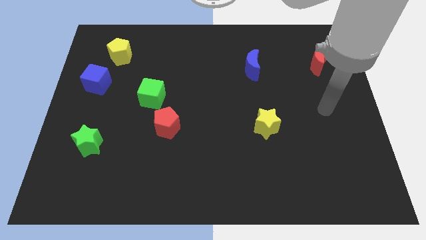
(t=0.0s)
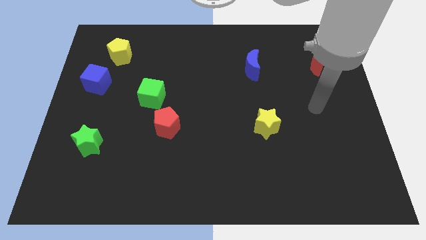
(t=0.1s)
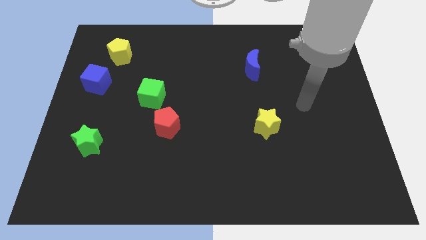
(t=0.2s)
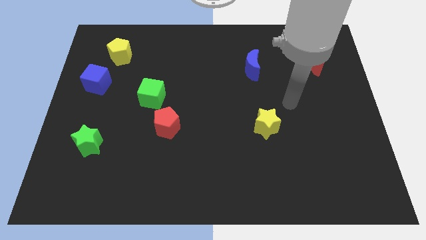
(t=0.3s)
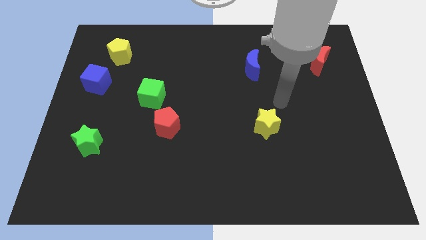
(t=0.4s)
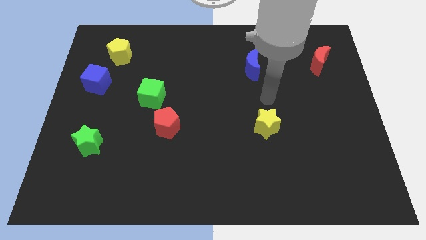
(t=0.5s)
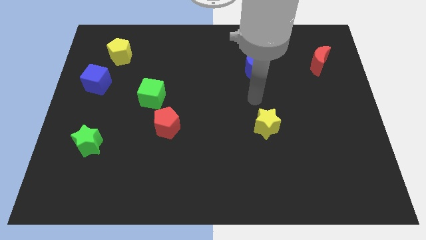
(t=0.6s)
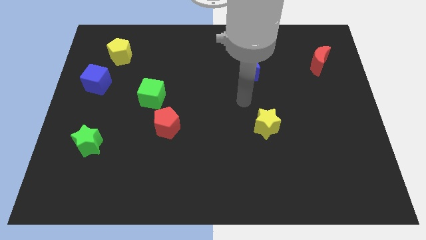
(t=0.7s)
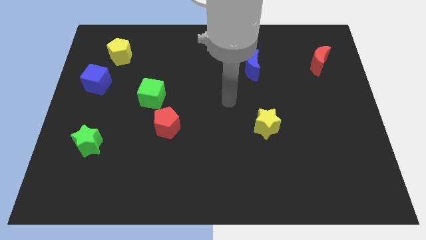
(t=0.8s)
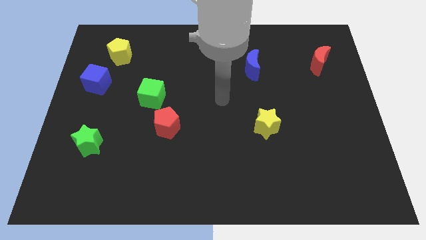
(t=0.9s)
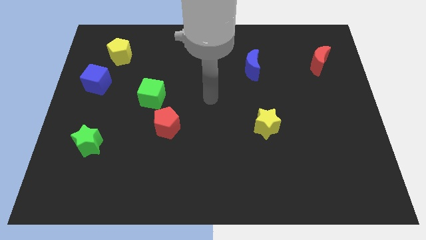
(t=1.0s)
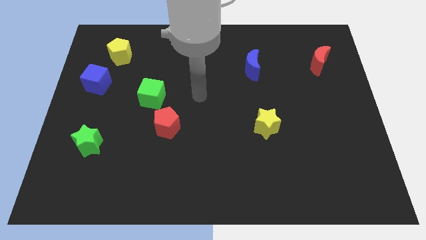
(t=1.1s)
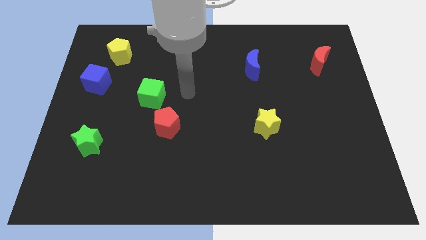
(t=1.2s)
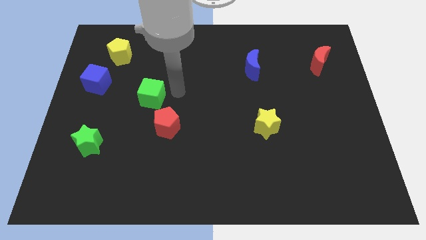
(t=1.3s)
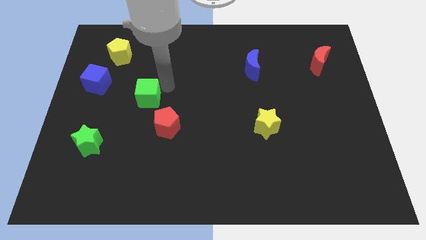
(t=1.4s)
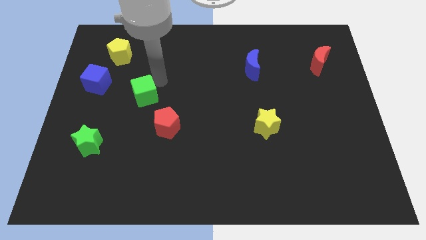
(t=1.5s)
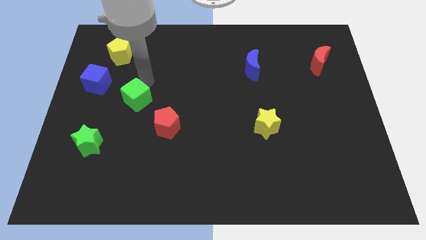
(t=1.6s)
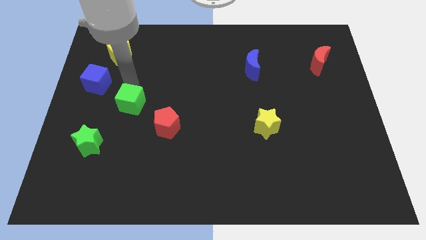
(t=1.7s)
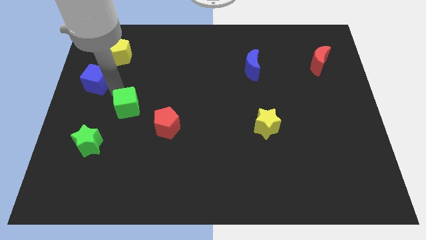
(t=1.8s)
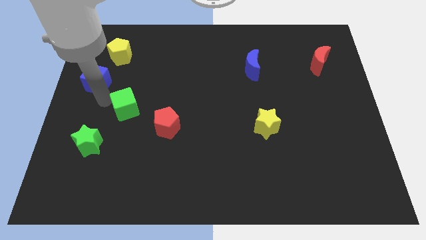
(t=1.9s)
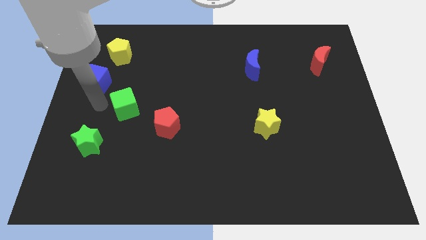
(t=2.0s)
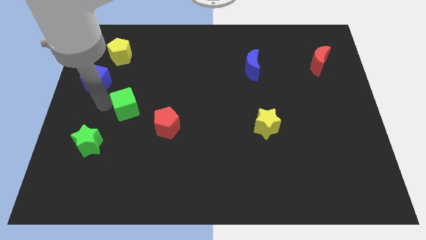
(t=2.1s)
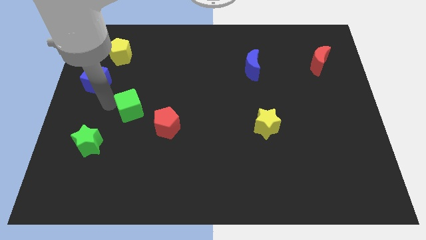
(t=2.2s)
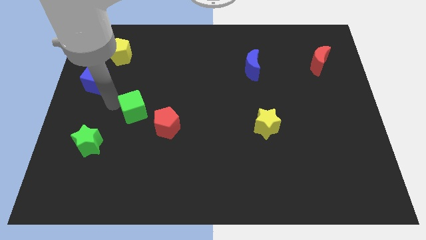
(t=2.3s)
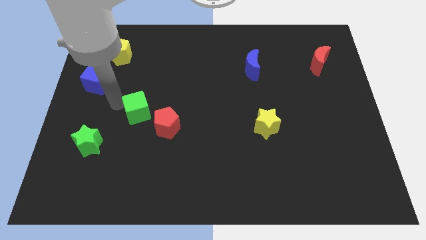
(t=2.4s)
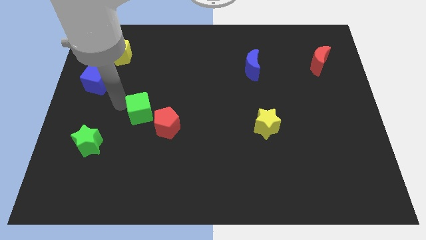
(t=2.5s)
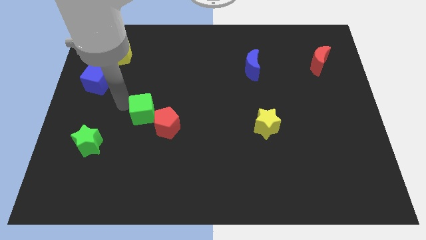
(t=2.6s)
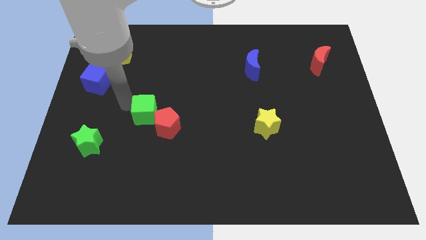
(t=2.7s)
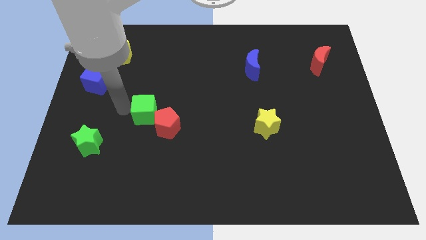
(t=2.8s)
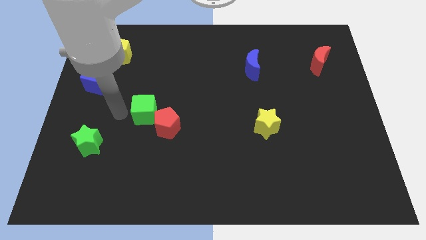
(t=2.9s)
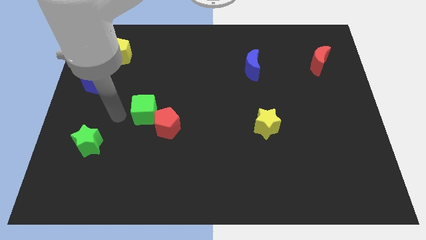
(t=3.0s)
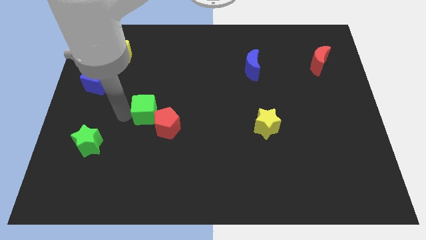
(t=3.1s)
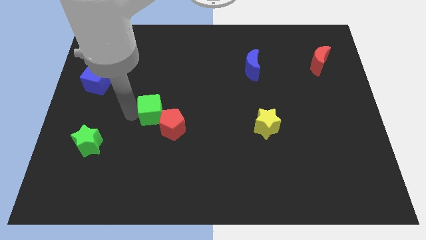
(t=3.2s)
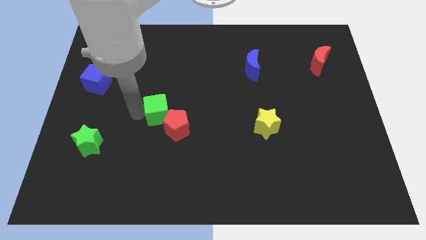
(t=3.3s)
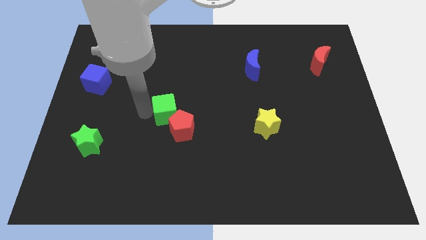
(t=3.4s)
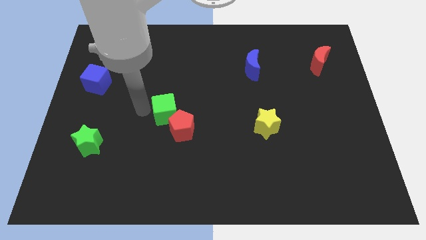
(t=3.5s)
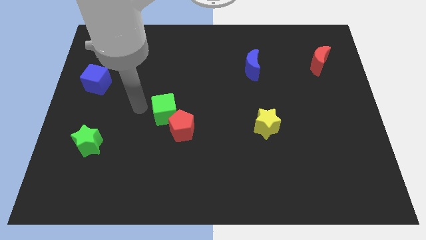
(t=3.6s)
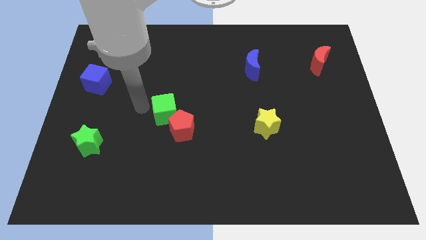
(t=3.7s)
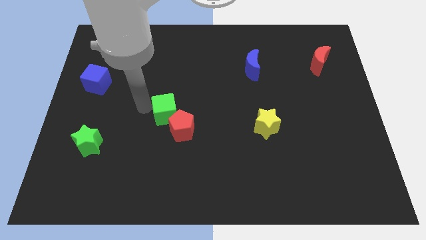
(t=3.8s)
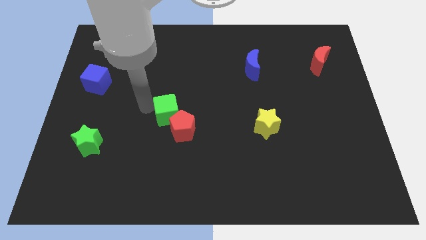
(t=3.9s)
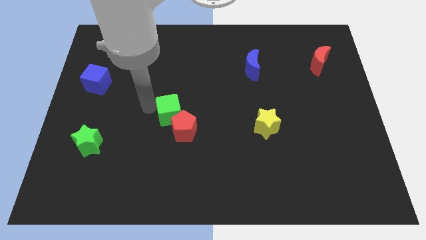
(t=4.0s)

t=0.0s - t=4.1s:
push the green cube somewhat diagonally down and to the right

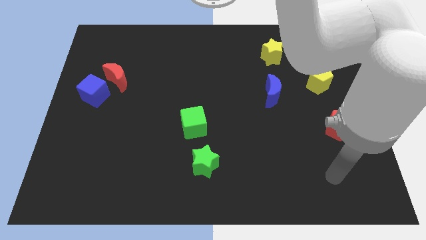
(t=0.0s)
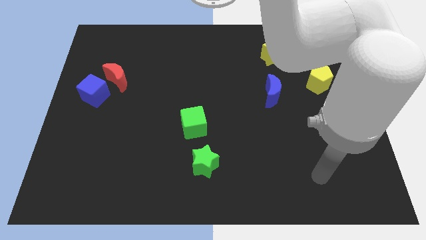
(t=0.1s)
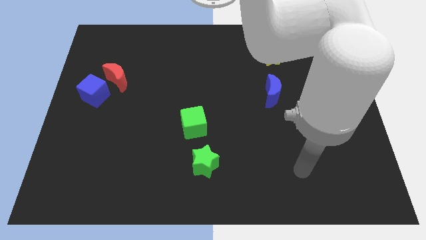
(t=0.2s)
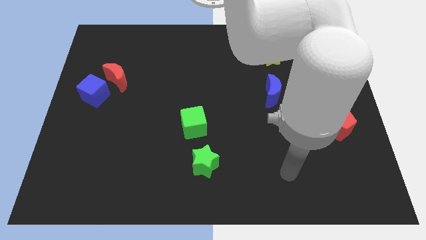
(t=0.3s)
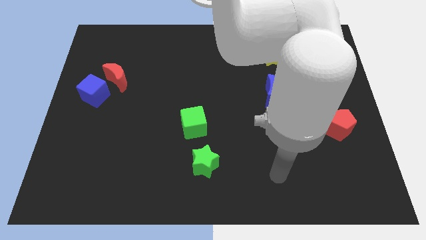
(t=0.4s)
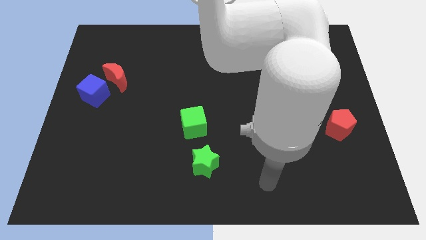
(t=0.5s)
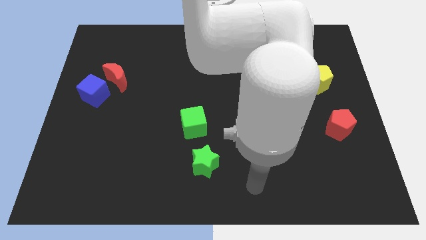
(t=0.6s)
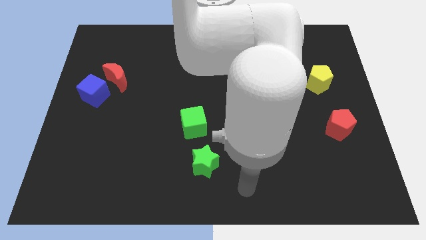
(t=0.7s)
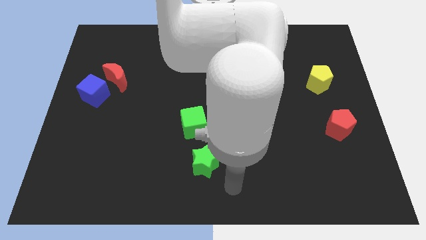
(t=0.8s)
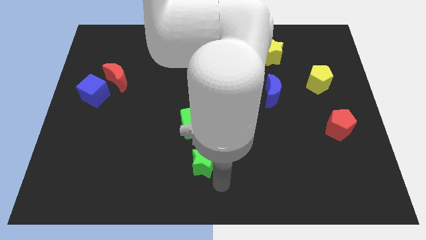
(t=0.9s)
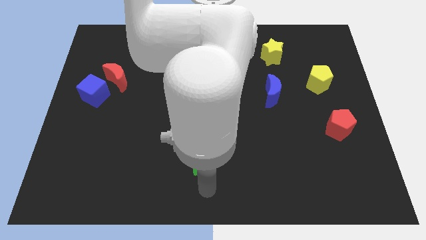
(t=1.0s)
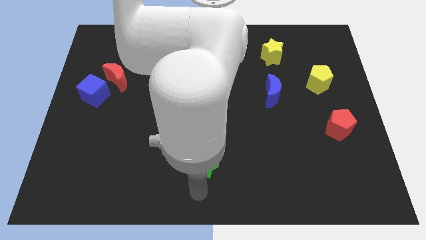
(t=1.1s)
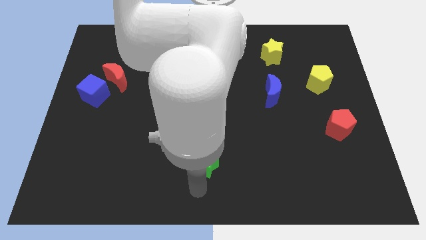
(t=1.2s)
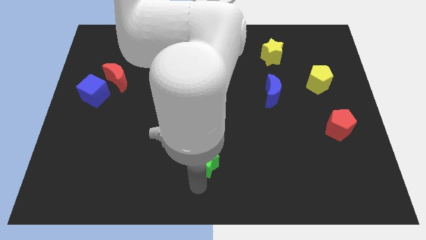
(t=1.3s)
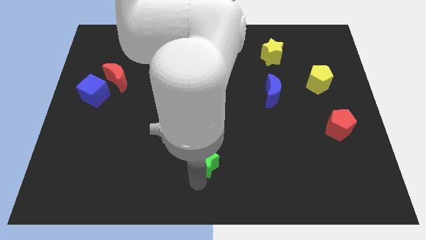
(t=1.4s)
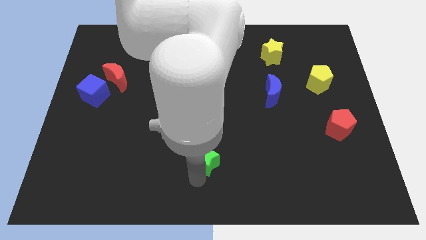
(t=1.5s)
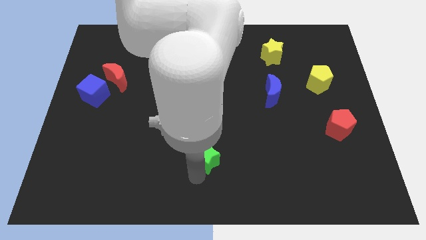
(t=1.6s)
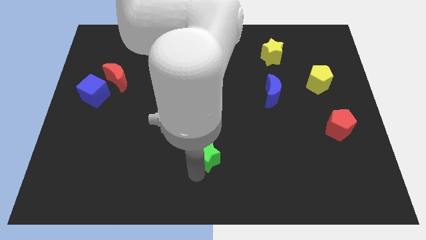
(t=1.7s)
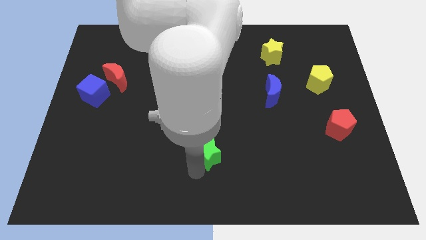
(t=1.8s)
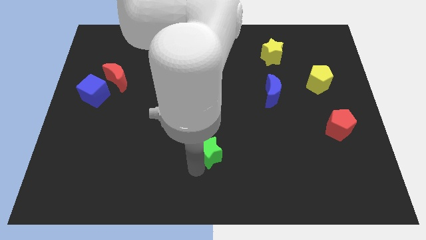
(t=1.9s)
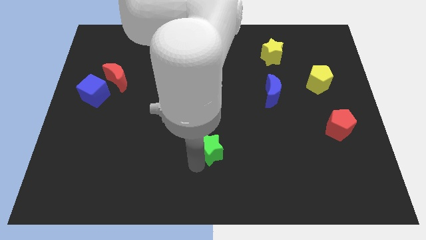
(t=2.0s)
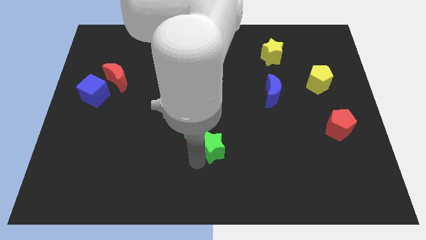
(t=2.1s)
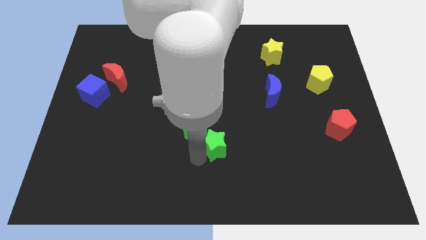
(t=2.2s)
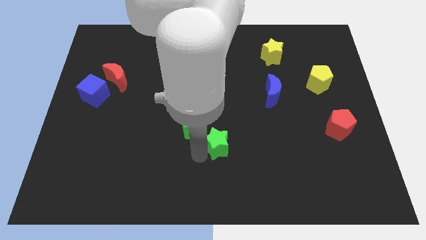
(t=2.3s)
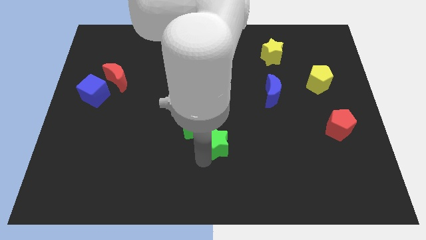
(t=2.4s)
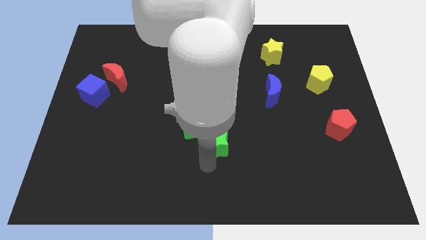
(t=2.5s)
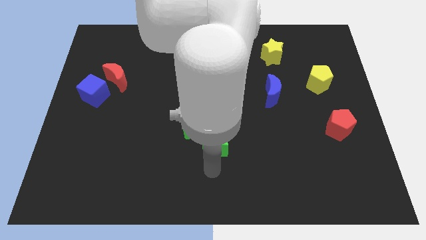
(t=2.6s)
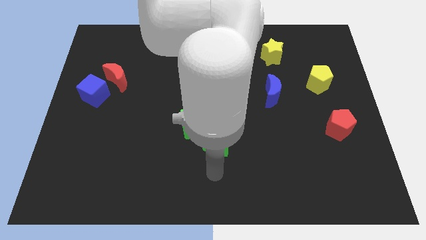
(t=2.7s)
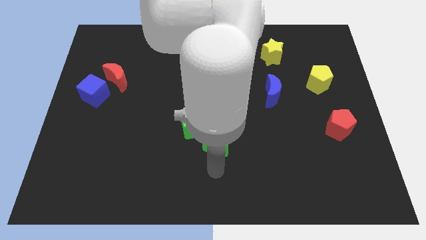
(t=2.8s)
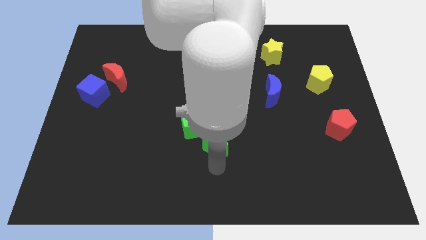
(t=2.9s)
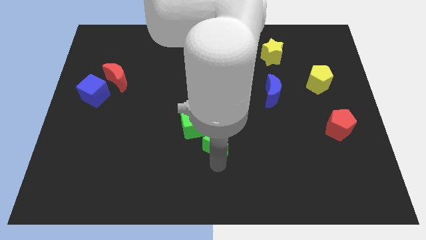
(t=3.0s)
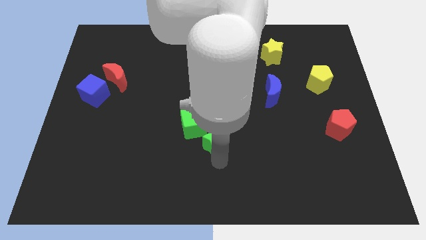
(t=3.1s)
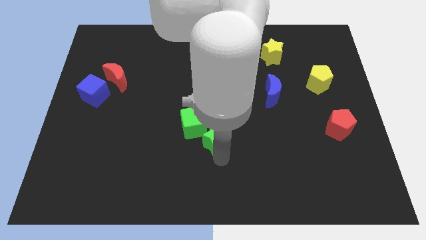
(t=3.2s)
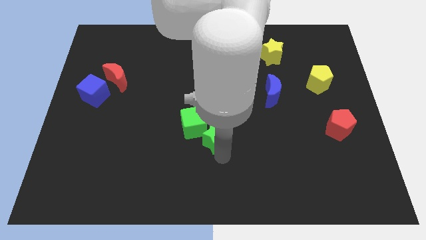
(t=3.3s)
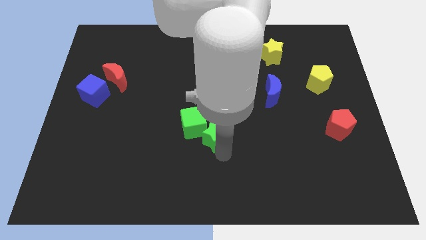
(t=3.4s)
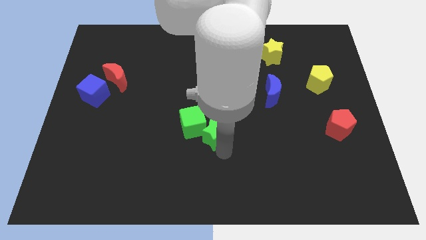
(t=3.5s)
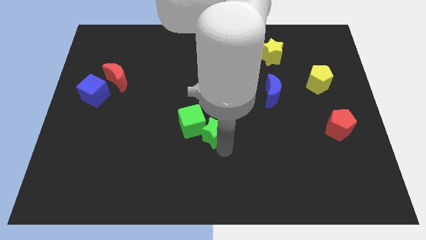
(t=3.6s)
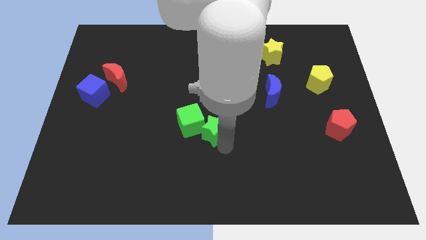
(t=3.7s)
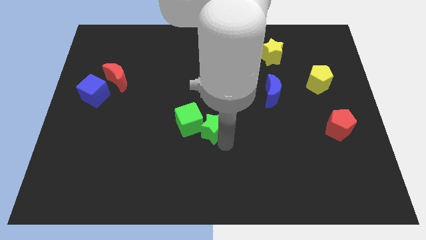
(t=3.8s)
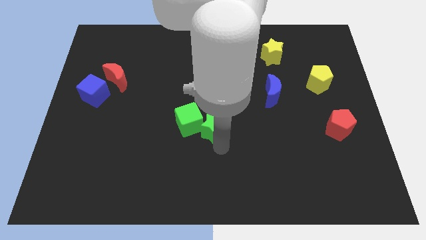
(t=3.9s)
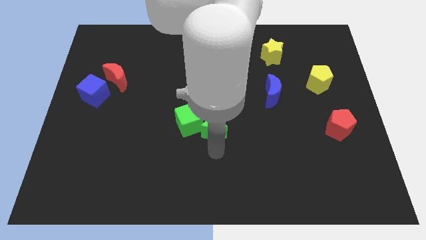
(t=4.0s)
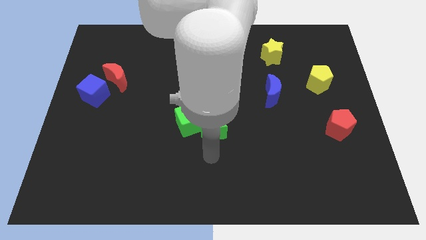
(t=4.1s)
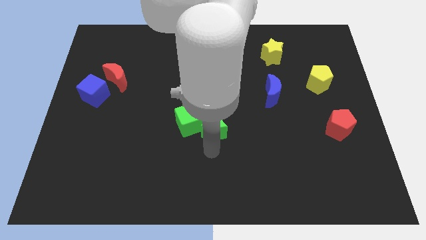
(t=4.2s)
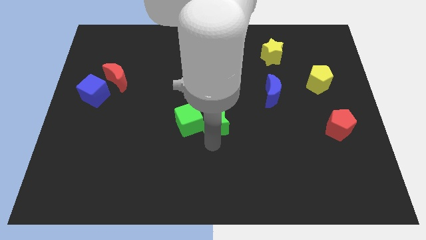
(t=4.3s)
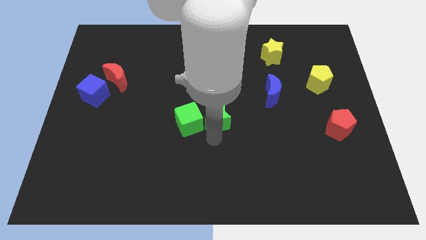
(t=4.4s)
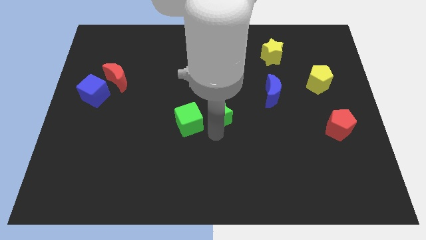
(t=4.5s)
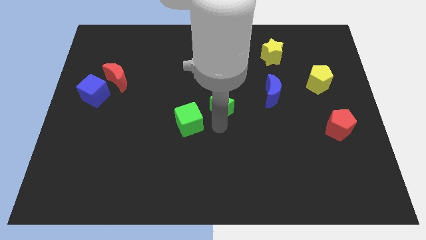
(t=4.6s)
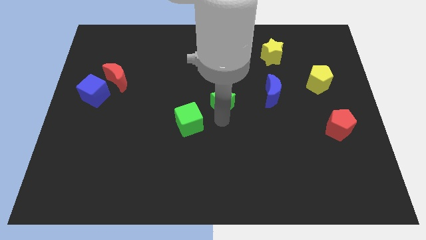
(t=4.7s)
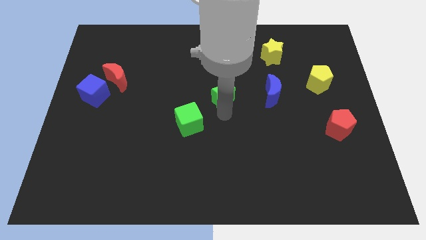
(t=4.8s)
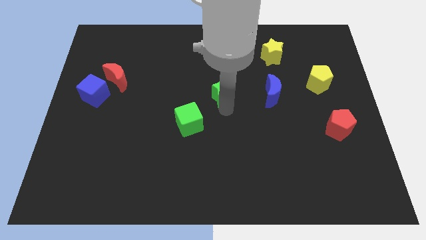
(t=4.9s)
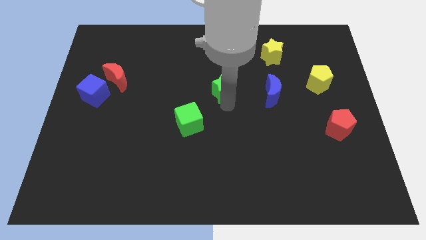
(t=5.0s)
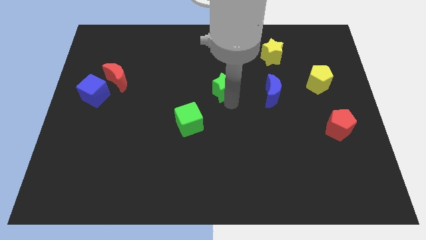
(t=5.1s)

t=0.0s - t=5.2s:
push the green star up
